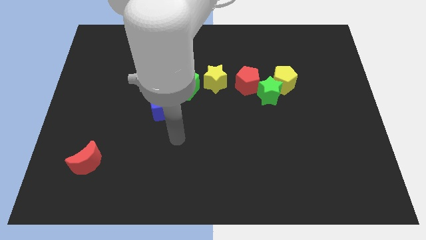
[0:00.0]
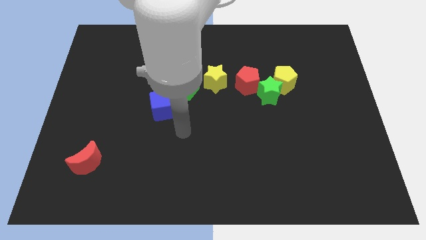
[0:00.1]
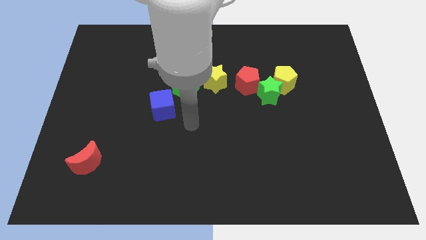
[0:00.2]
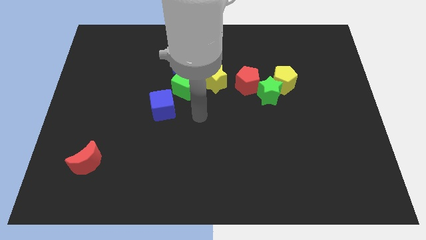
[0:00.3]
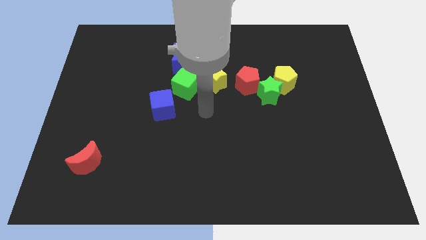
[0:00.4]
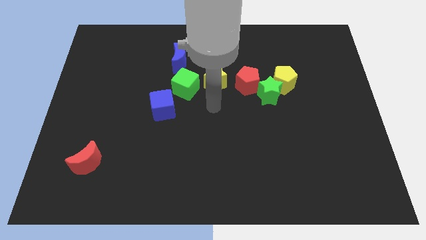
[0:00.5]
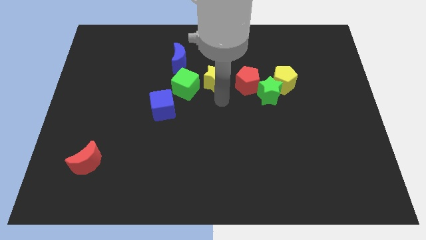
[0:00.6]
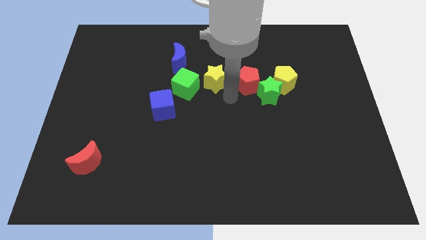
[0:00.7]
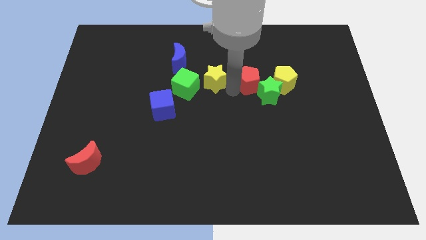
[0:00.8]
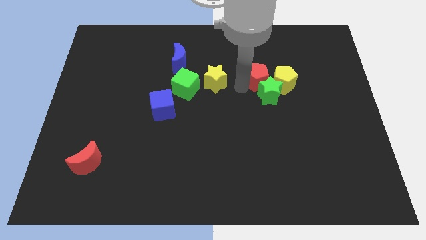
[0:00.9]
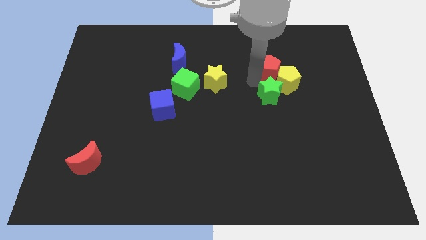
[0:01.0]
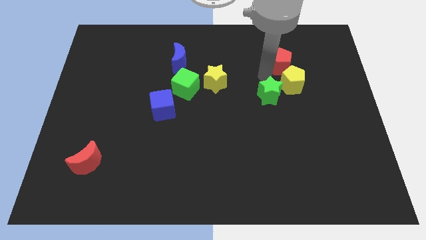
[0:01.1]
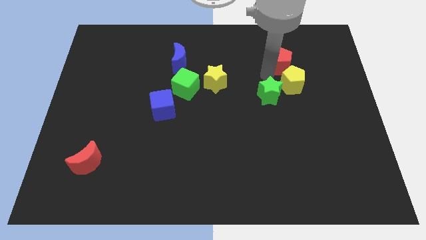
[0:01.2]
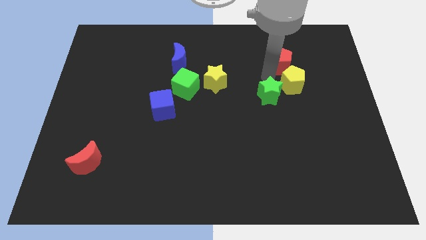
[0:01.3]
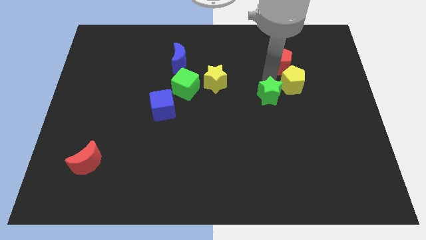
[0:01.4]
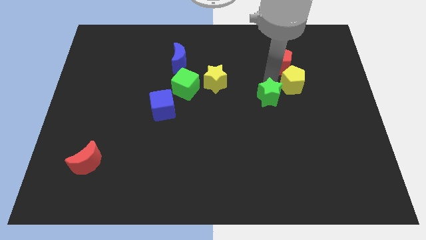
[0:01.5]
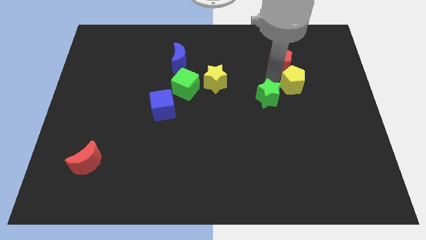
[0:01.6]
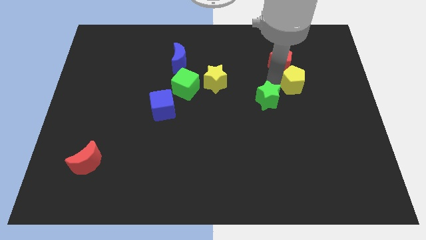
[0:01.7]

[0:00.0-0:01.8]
pull the green star apart from the yellow pentagon and red pentagon

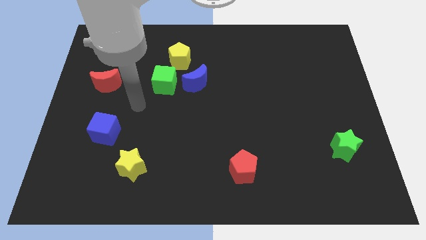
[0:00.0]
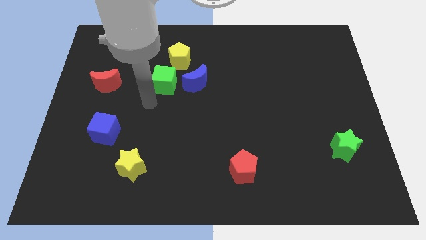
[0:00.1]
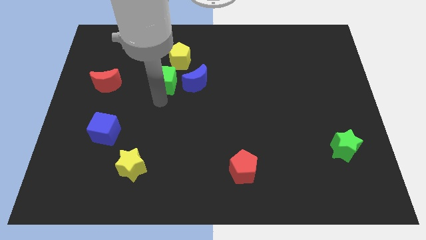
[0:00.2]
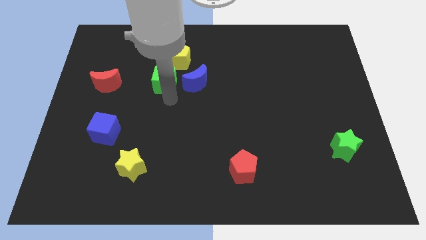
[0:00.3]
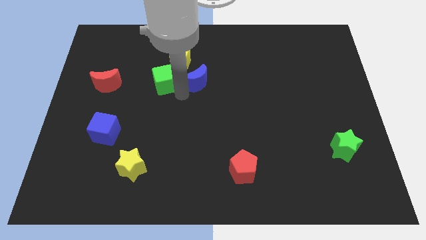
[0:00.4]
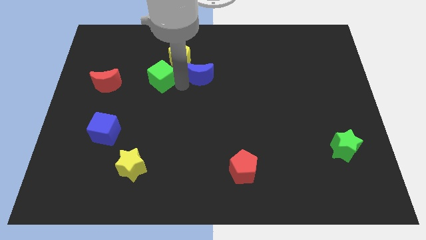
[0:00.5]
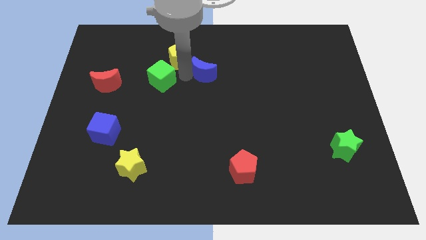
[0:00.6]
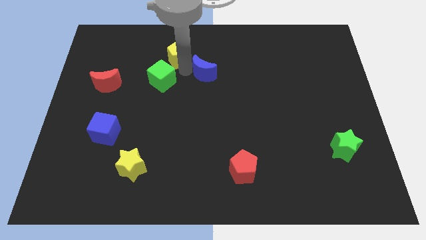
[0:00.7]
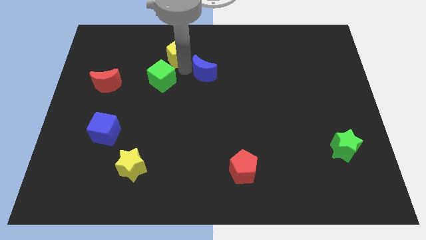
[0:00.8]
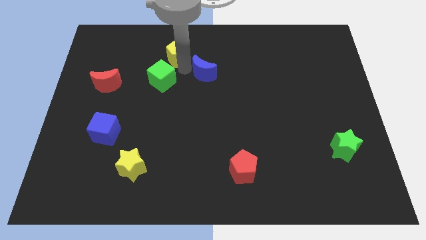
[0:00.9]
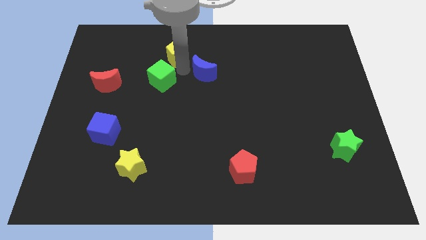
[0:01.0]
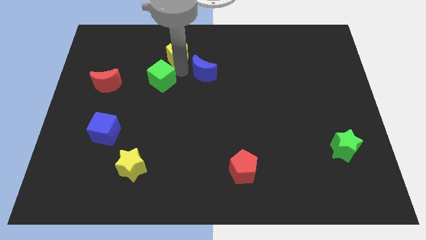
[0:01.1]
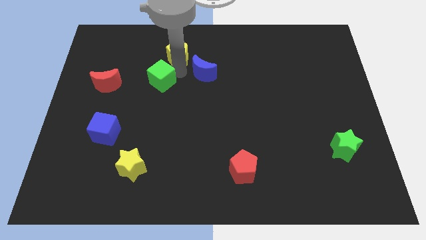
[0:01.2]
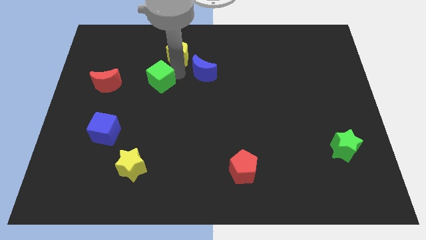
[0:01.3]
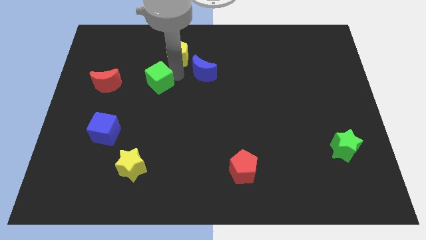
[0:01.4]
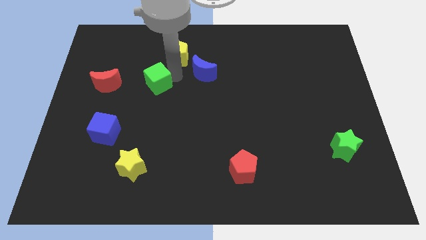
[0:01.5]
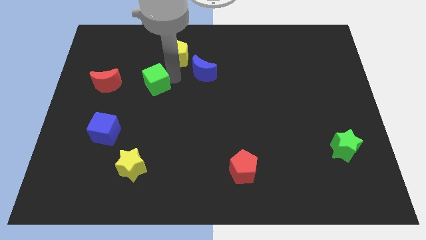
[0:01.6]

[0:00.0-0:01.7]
pull the green cube apart from the blue moon and yellow pentagon

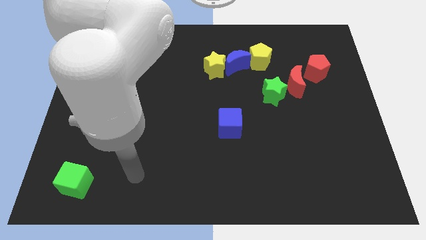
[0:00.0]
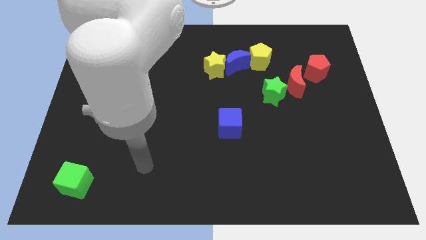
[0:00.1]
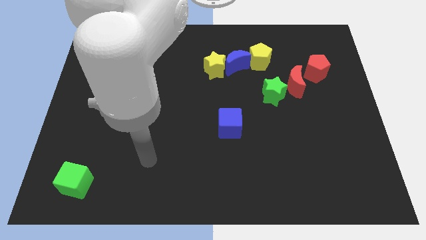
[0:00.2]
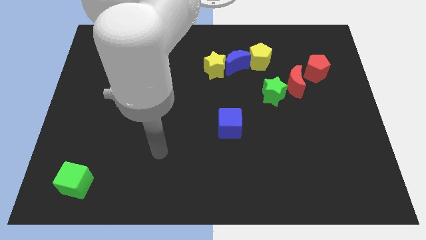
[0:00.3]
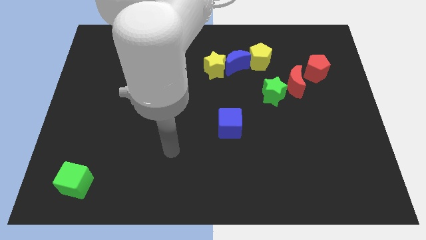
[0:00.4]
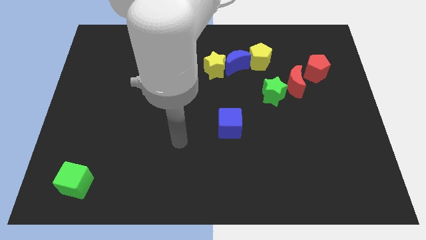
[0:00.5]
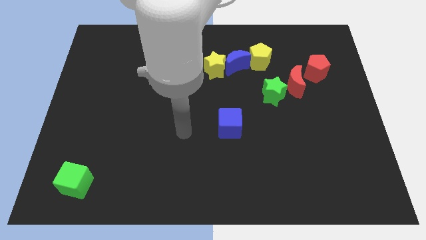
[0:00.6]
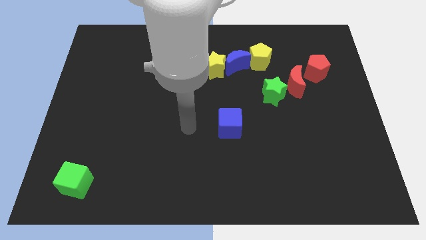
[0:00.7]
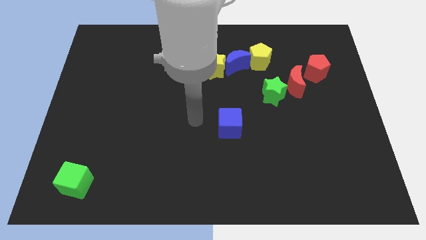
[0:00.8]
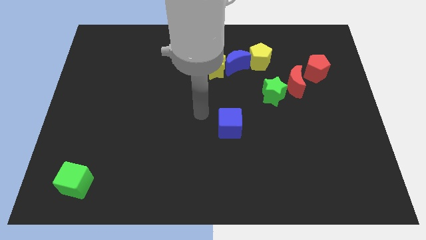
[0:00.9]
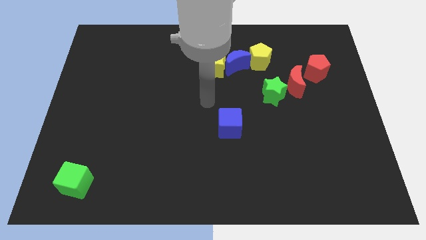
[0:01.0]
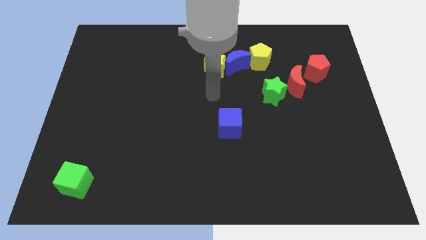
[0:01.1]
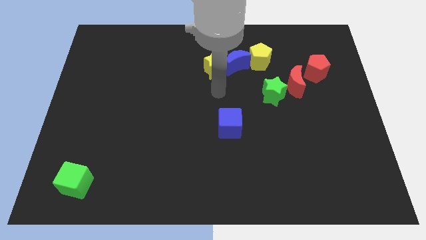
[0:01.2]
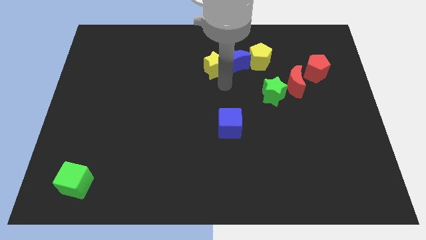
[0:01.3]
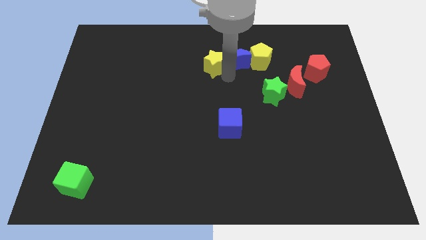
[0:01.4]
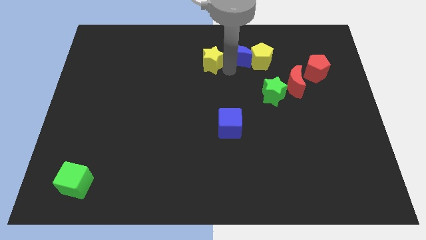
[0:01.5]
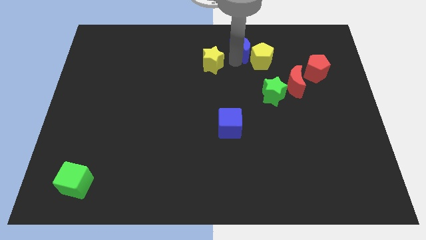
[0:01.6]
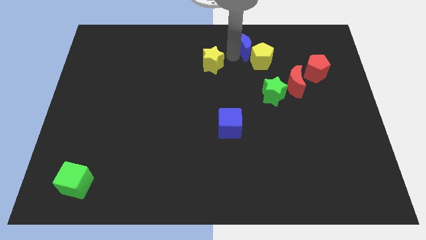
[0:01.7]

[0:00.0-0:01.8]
move the yellow star away from the blue moon

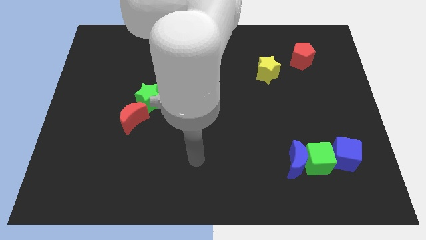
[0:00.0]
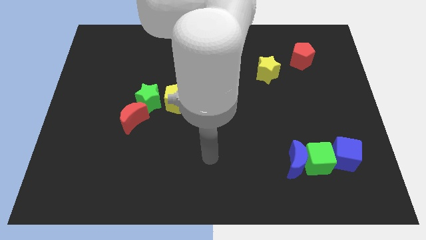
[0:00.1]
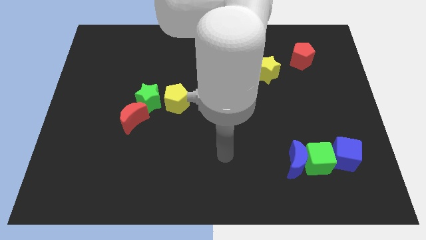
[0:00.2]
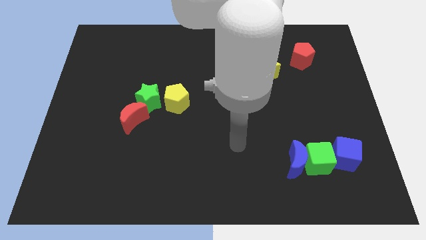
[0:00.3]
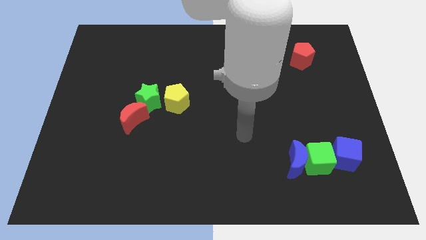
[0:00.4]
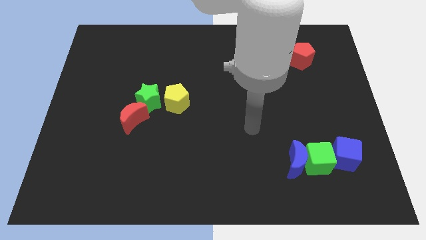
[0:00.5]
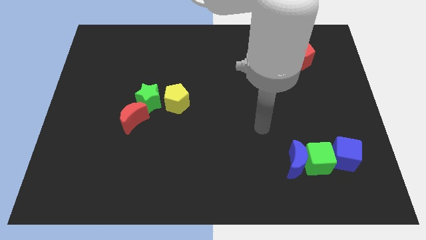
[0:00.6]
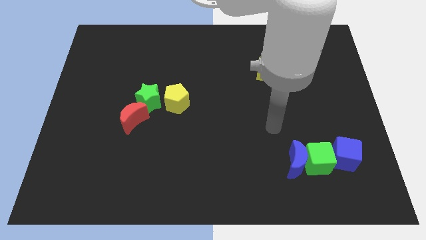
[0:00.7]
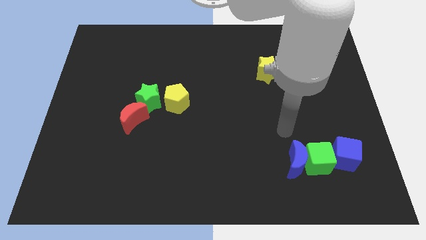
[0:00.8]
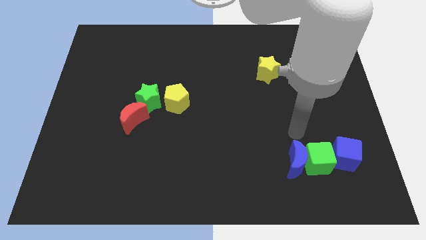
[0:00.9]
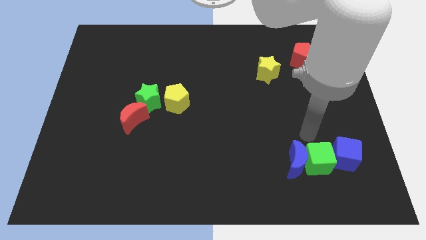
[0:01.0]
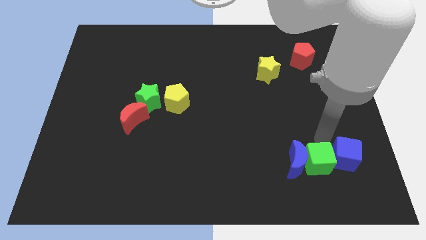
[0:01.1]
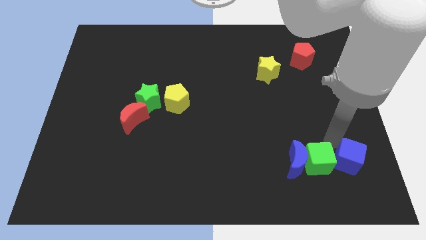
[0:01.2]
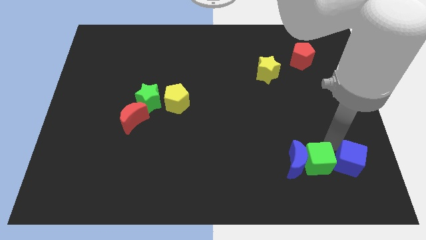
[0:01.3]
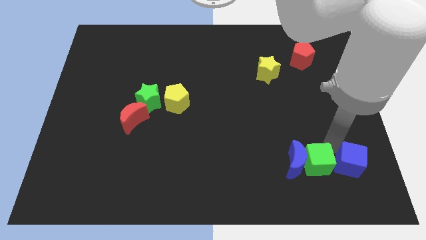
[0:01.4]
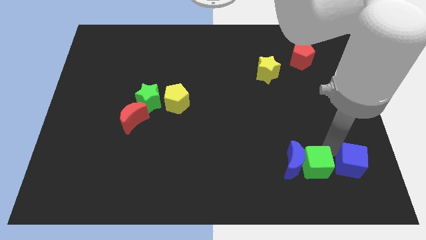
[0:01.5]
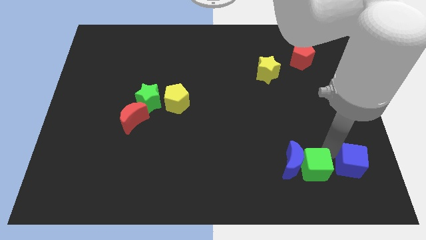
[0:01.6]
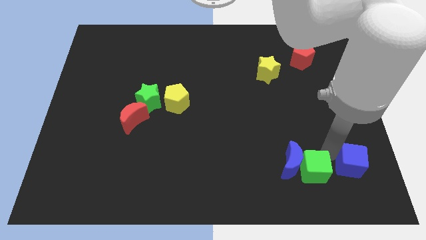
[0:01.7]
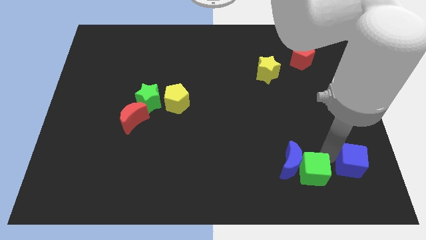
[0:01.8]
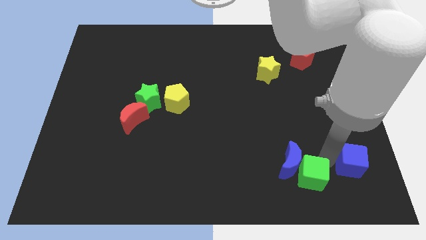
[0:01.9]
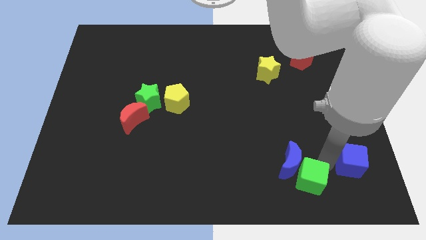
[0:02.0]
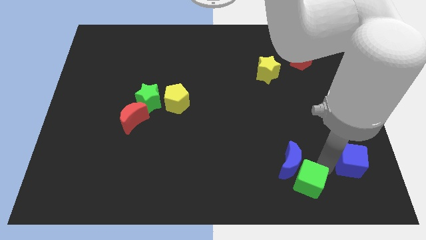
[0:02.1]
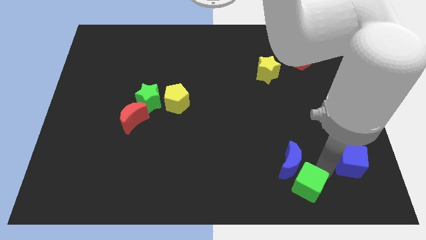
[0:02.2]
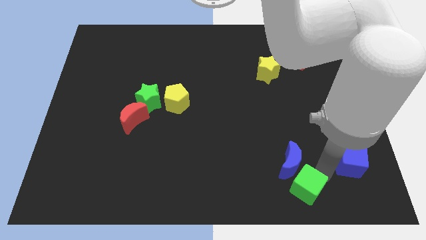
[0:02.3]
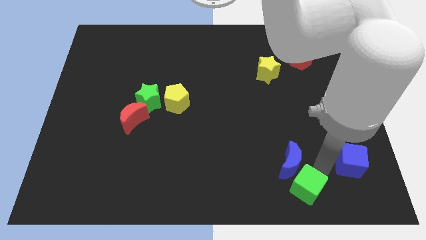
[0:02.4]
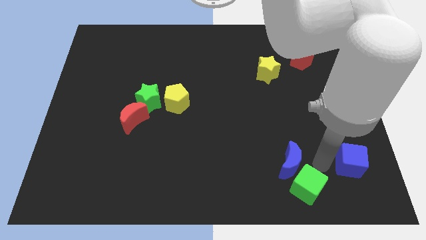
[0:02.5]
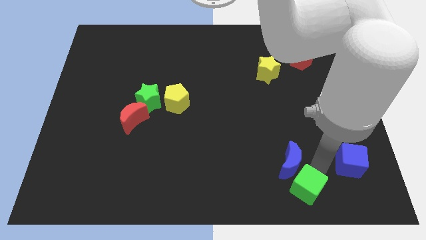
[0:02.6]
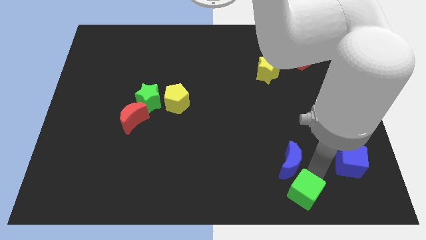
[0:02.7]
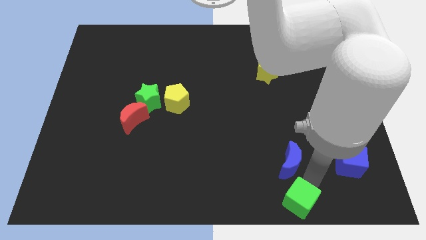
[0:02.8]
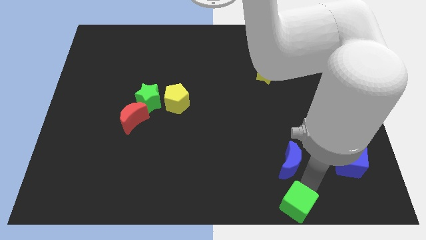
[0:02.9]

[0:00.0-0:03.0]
pull the green cube apart from the blue moon and blue cube

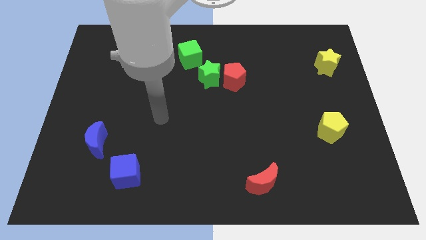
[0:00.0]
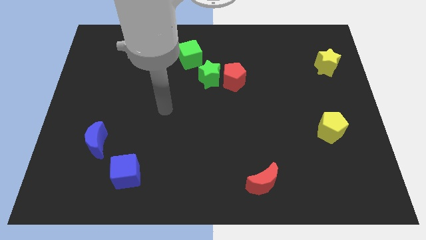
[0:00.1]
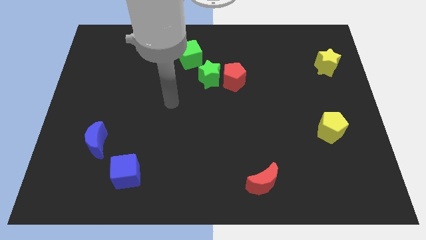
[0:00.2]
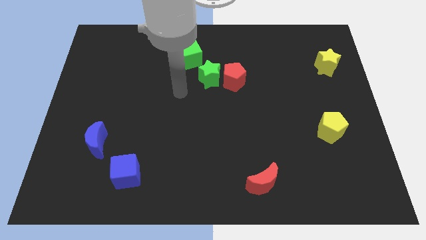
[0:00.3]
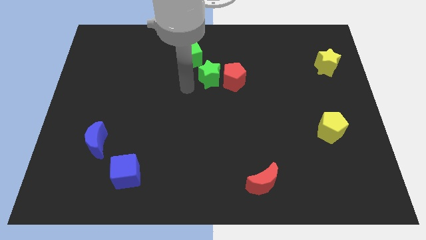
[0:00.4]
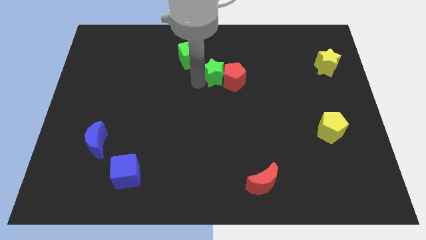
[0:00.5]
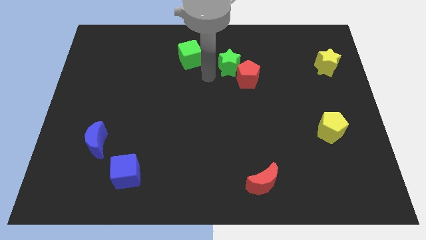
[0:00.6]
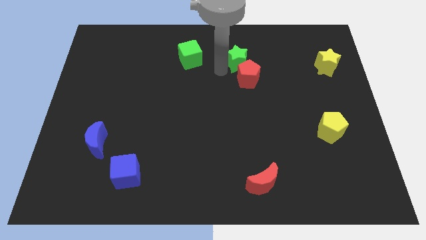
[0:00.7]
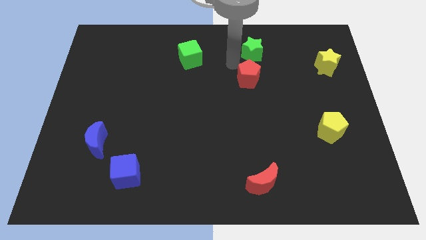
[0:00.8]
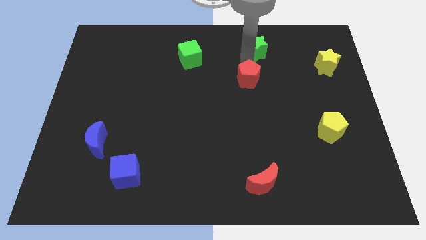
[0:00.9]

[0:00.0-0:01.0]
pull the red pentagon apart from the green star
